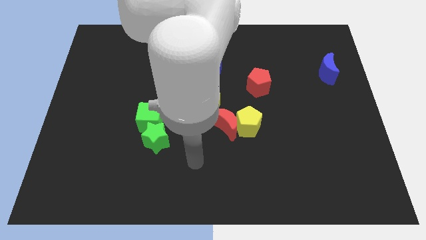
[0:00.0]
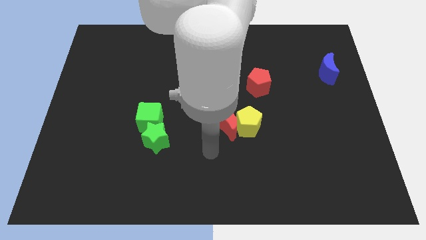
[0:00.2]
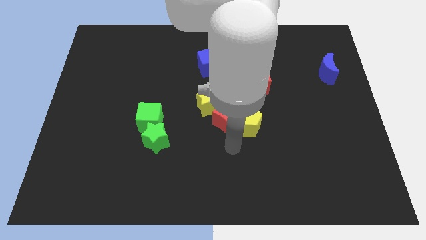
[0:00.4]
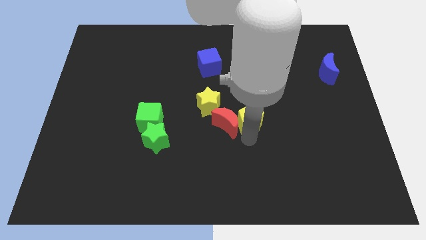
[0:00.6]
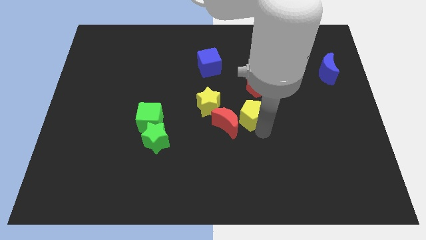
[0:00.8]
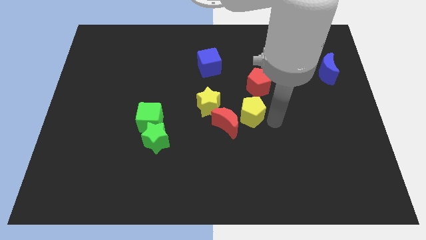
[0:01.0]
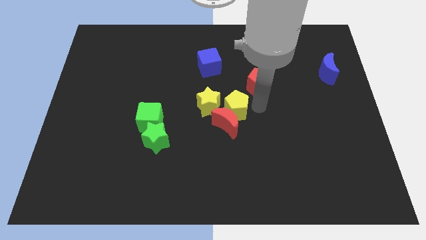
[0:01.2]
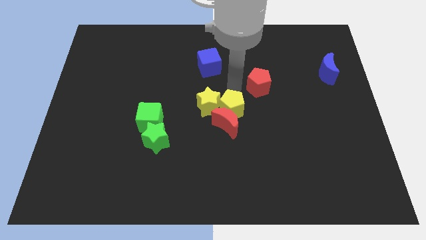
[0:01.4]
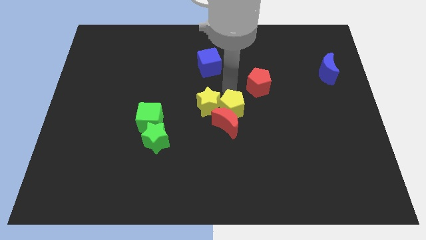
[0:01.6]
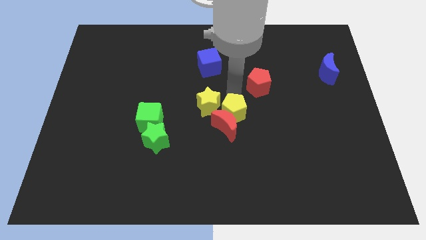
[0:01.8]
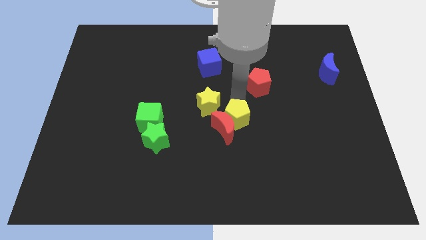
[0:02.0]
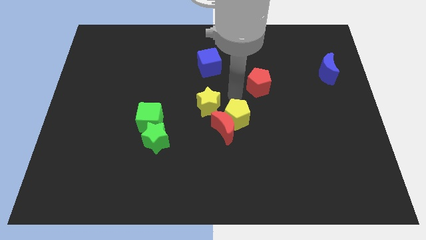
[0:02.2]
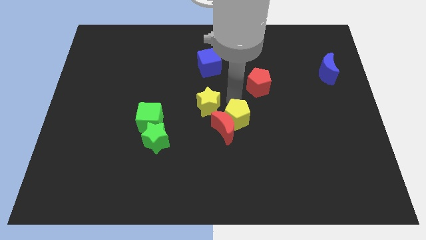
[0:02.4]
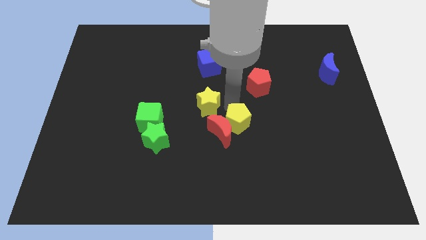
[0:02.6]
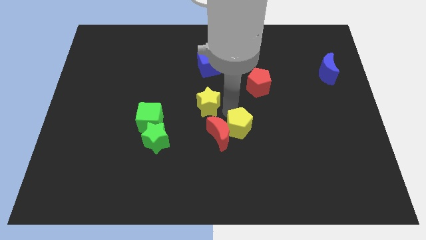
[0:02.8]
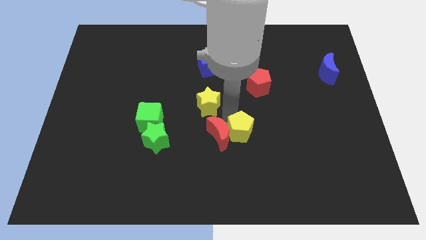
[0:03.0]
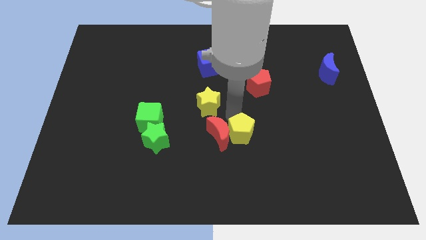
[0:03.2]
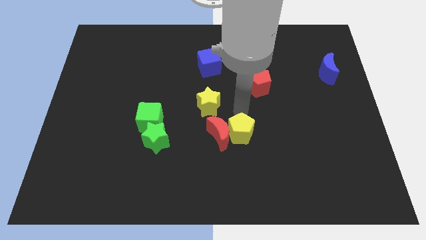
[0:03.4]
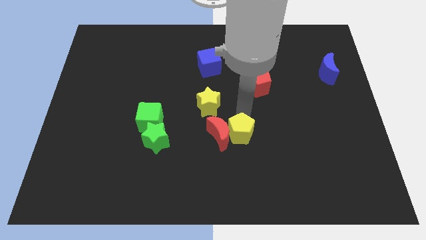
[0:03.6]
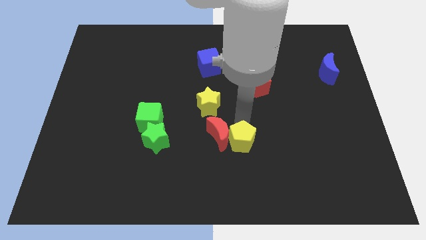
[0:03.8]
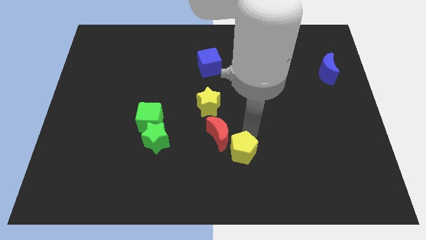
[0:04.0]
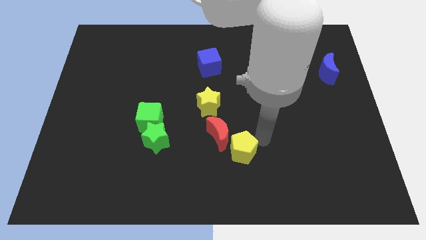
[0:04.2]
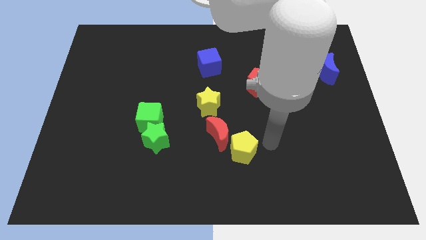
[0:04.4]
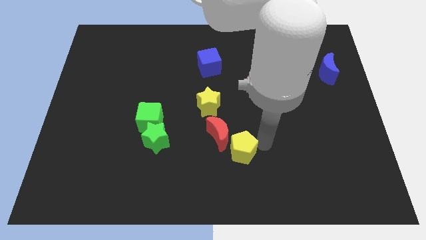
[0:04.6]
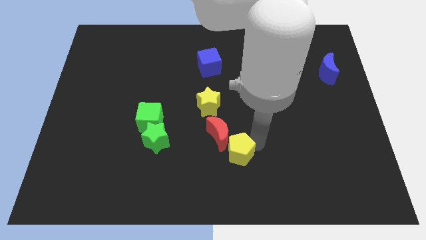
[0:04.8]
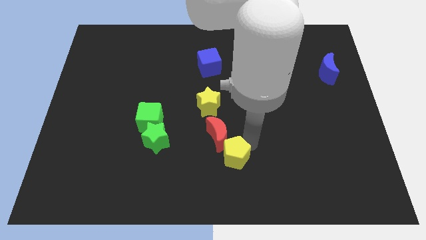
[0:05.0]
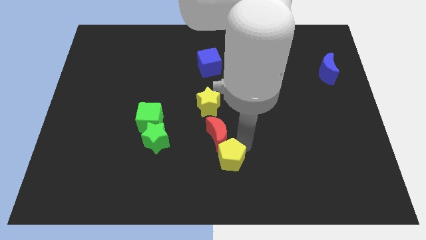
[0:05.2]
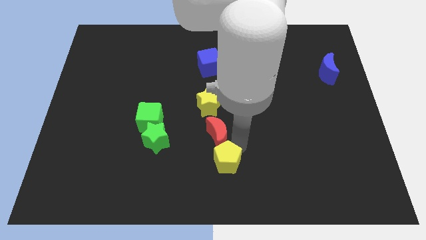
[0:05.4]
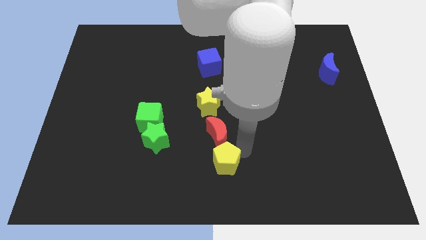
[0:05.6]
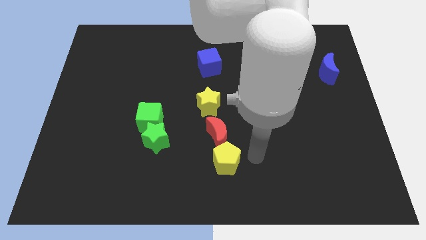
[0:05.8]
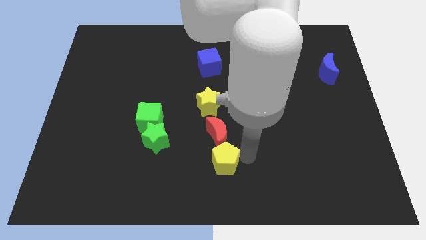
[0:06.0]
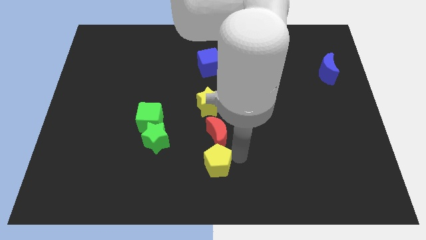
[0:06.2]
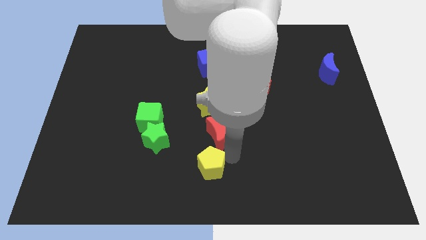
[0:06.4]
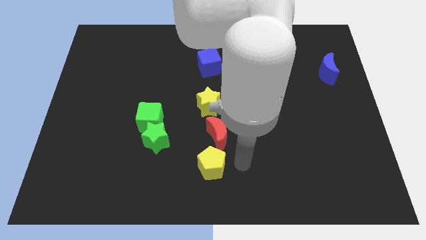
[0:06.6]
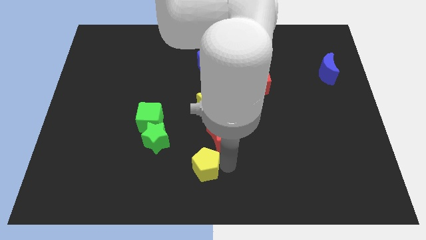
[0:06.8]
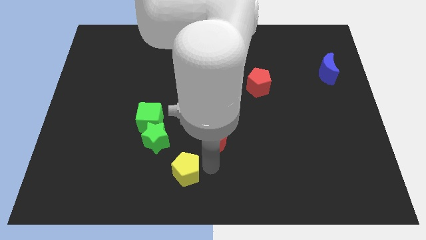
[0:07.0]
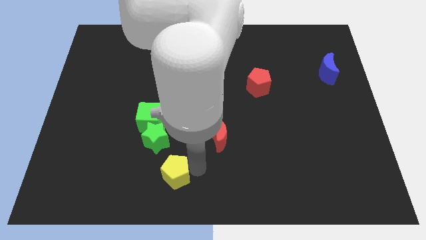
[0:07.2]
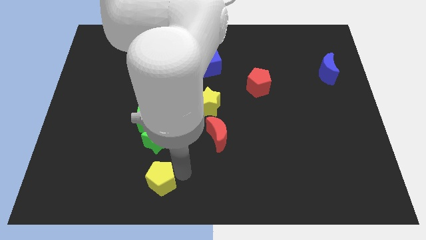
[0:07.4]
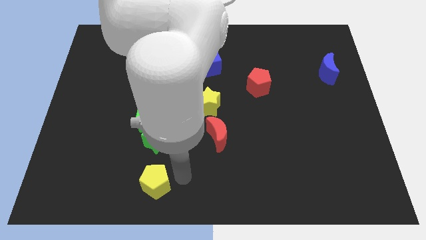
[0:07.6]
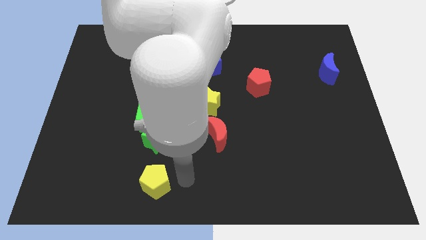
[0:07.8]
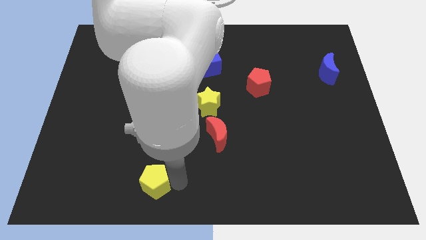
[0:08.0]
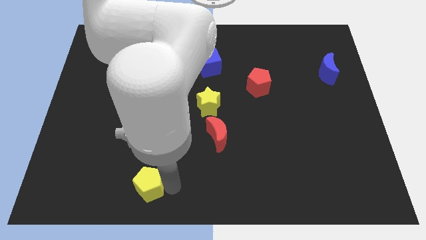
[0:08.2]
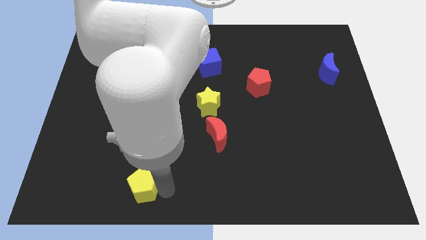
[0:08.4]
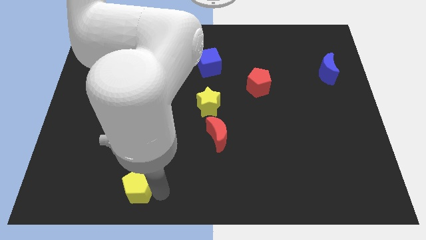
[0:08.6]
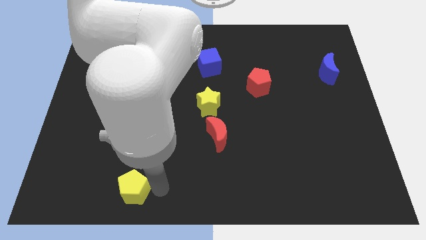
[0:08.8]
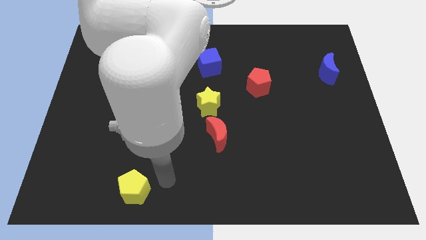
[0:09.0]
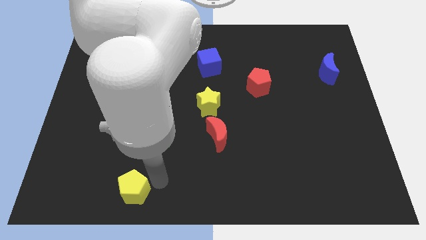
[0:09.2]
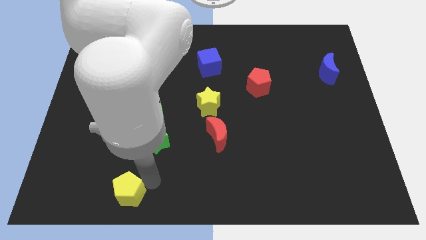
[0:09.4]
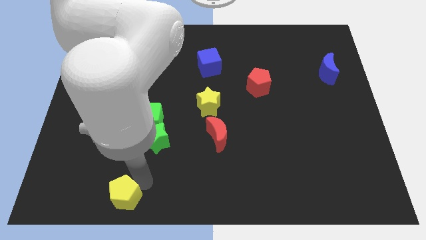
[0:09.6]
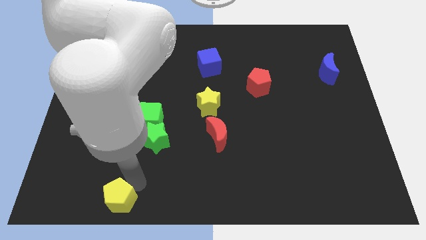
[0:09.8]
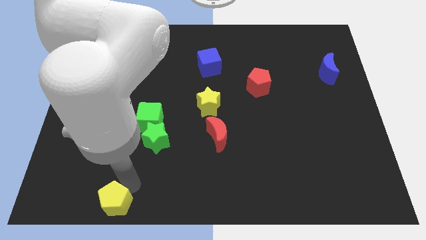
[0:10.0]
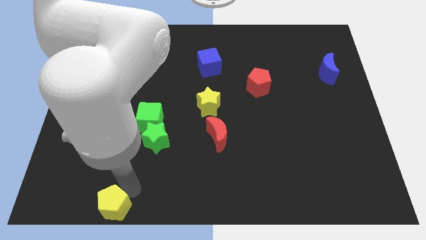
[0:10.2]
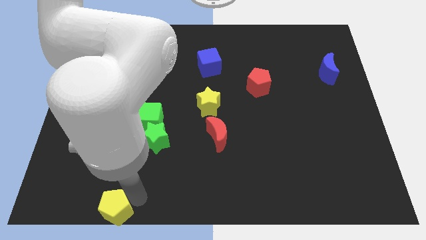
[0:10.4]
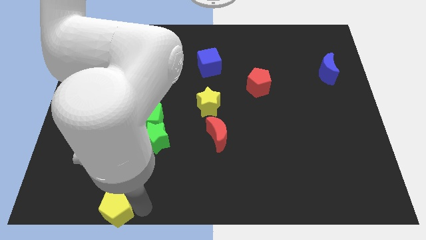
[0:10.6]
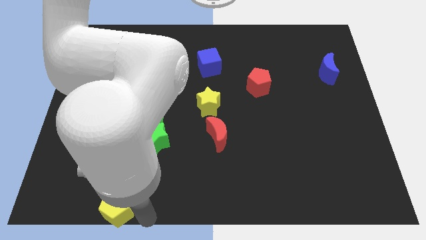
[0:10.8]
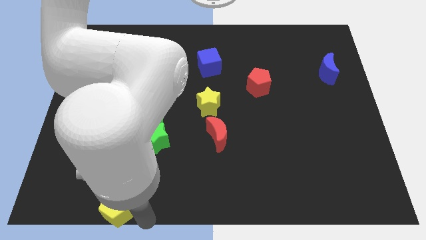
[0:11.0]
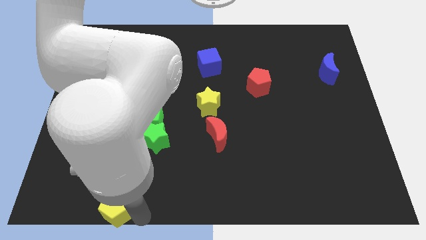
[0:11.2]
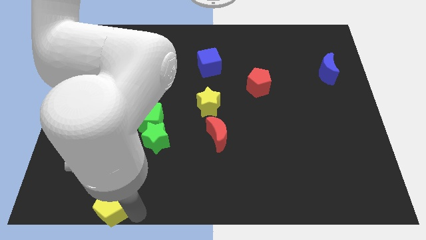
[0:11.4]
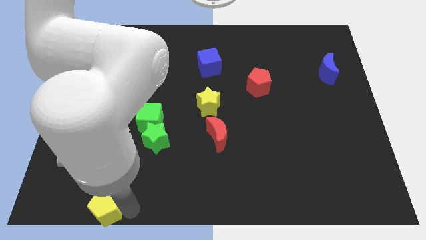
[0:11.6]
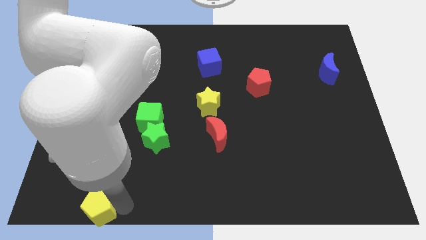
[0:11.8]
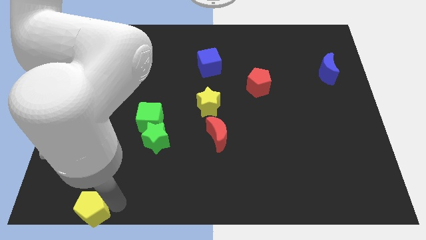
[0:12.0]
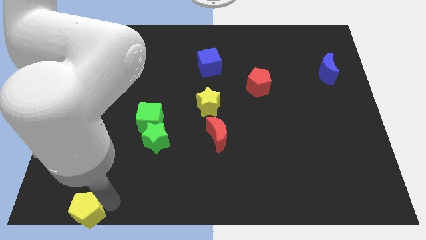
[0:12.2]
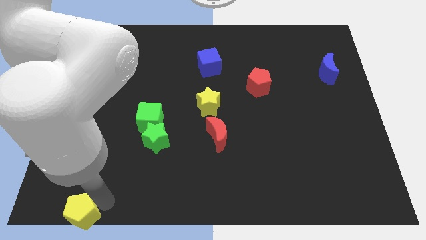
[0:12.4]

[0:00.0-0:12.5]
move the yellow pentagon to the bottom left of the board

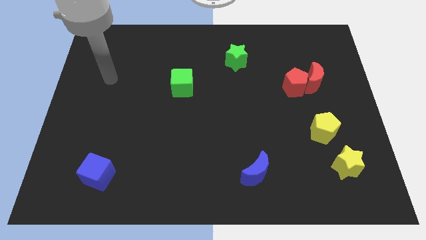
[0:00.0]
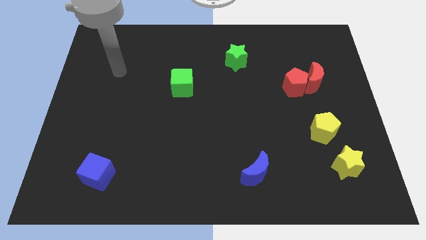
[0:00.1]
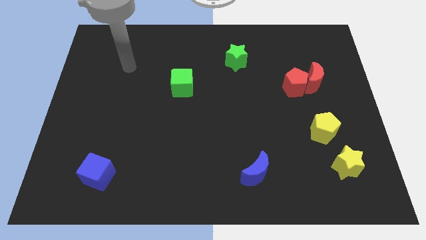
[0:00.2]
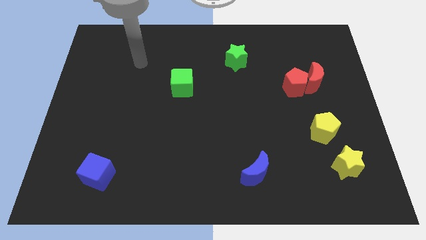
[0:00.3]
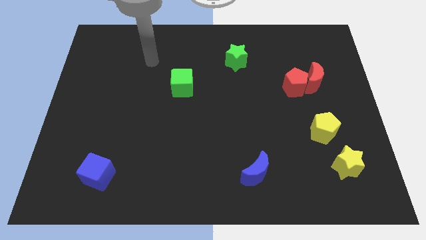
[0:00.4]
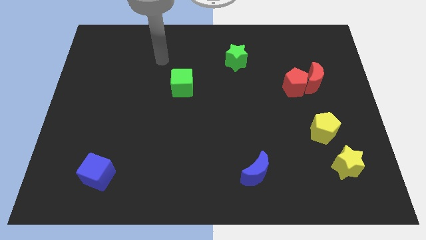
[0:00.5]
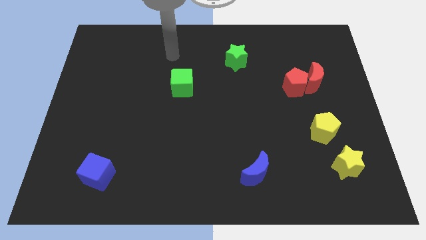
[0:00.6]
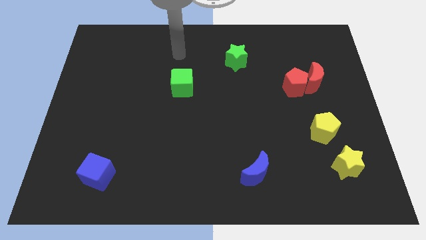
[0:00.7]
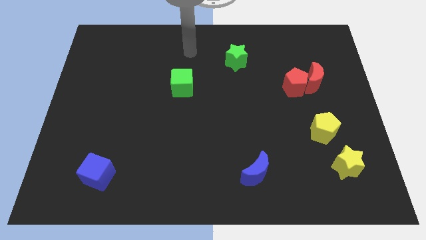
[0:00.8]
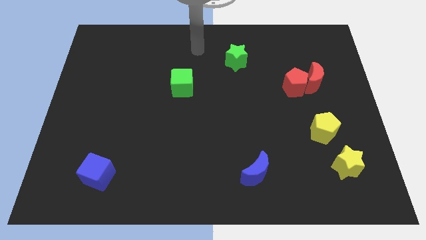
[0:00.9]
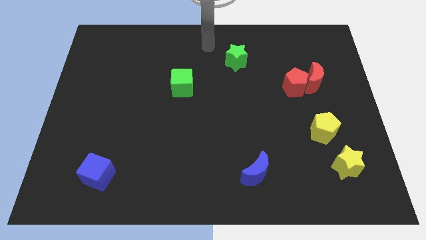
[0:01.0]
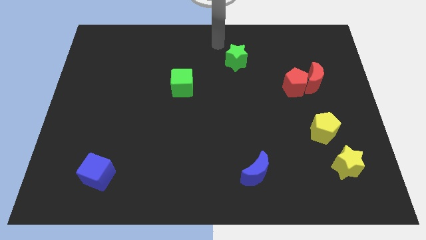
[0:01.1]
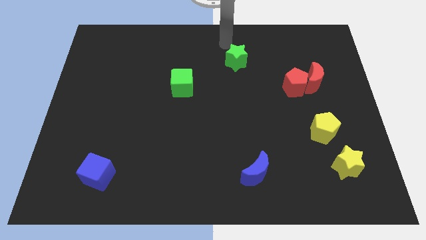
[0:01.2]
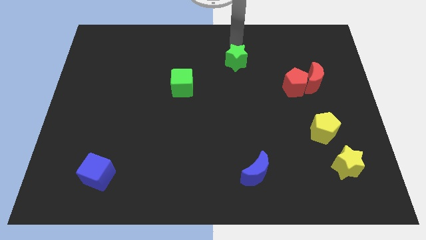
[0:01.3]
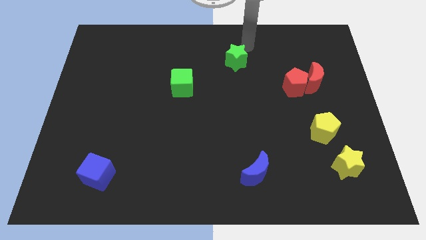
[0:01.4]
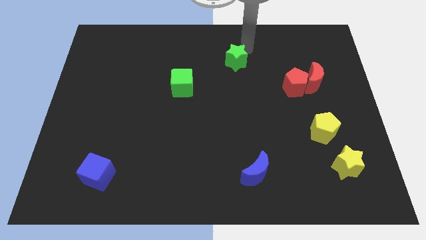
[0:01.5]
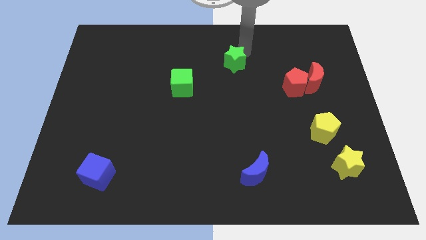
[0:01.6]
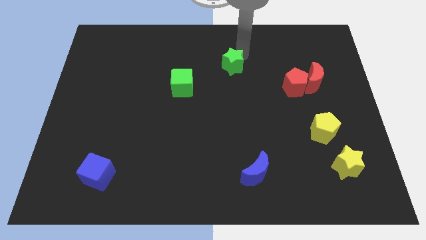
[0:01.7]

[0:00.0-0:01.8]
push the green star to the center
